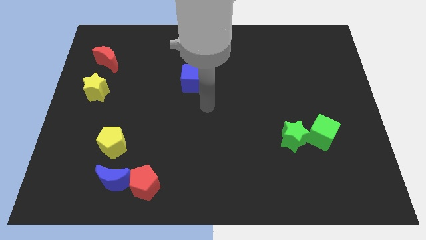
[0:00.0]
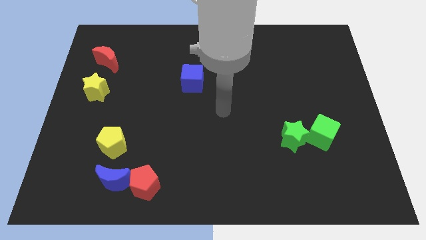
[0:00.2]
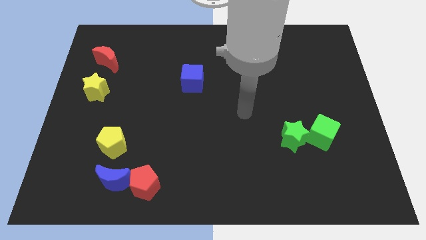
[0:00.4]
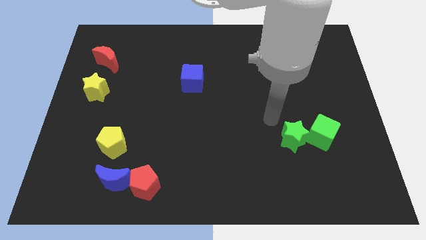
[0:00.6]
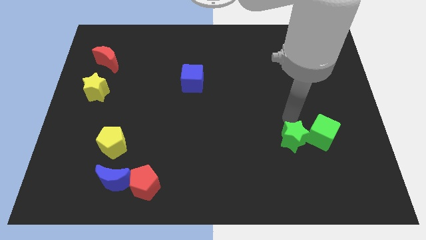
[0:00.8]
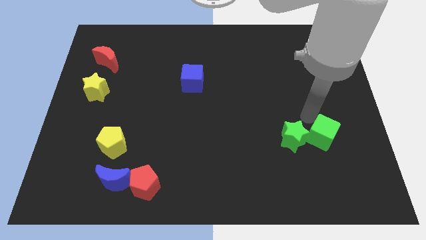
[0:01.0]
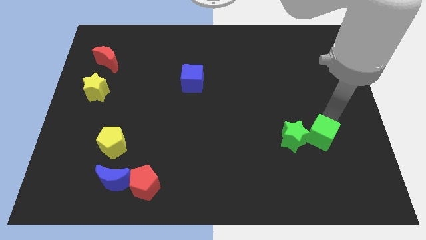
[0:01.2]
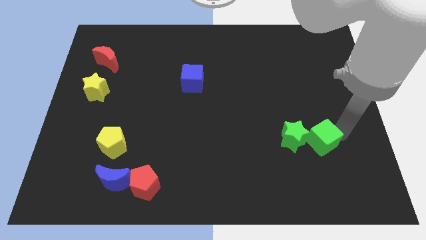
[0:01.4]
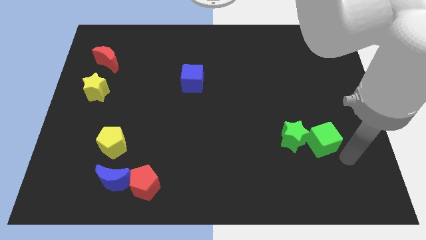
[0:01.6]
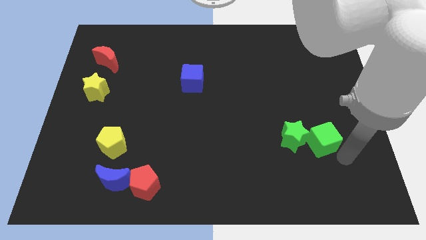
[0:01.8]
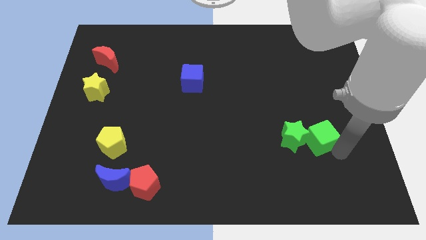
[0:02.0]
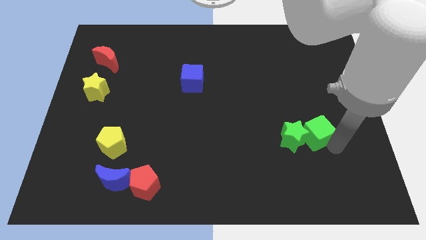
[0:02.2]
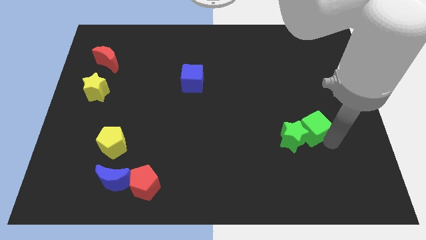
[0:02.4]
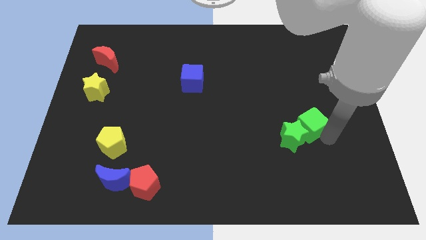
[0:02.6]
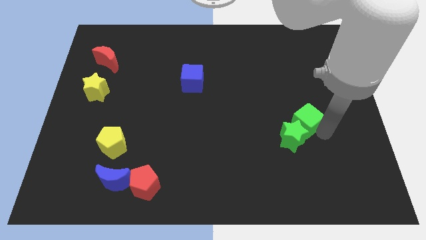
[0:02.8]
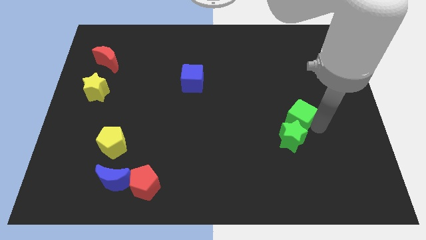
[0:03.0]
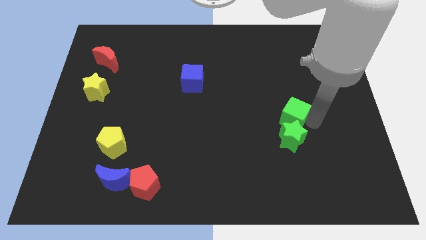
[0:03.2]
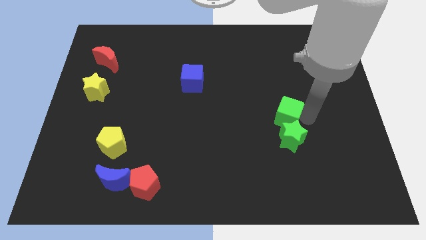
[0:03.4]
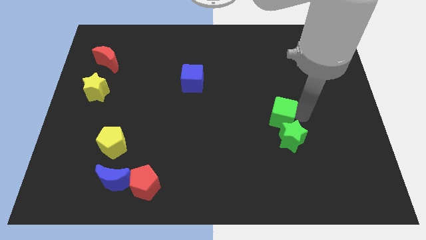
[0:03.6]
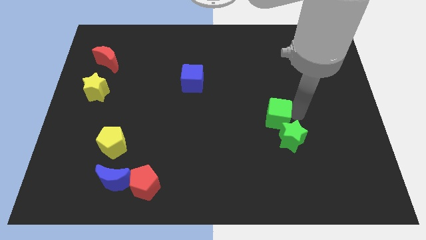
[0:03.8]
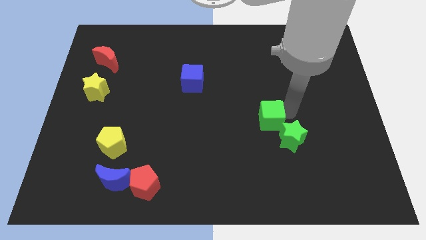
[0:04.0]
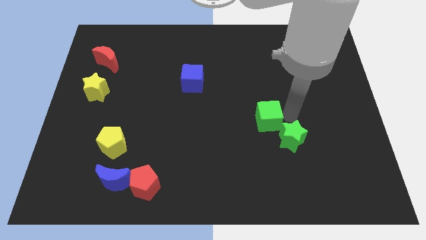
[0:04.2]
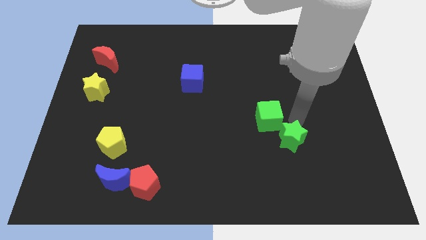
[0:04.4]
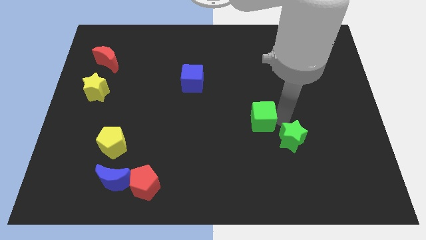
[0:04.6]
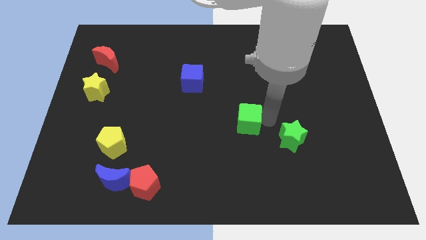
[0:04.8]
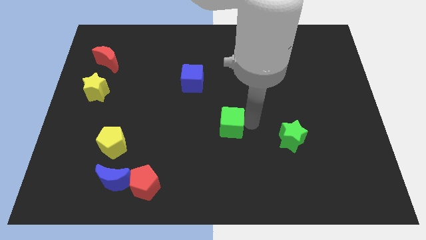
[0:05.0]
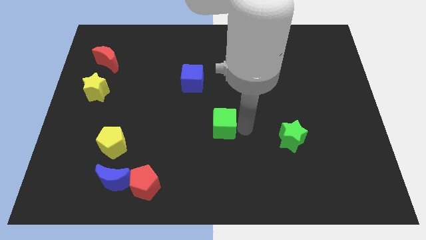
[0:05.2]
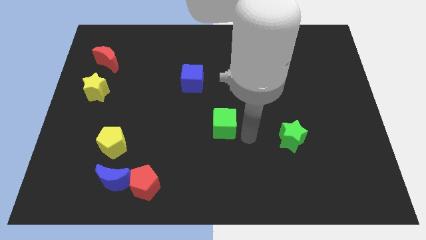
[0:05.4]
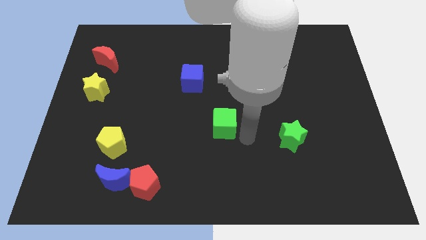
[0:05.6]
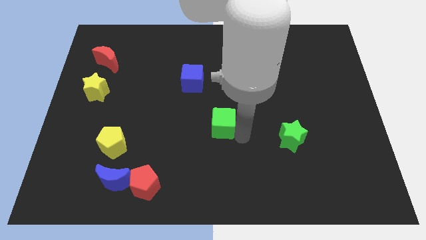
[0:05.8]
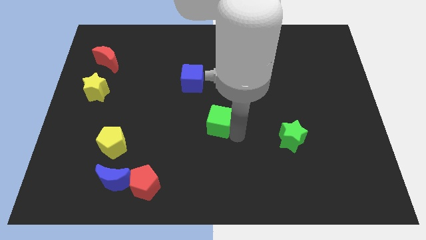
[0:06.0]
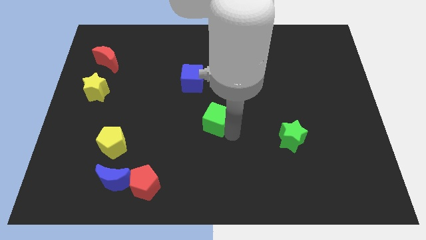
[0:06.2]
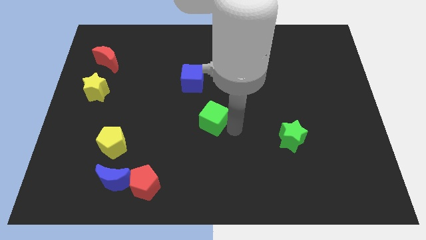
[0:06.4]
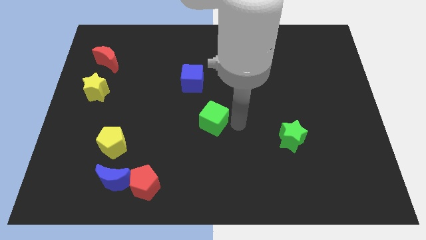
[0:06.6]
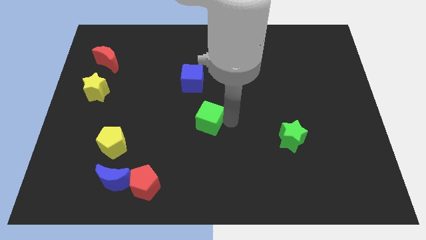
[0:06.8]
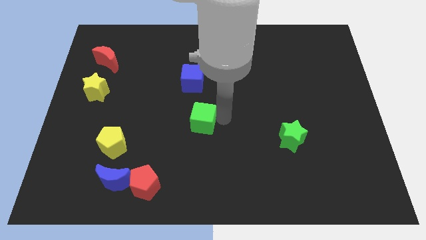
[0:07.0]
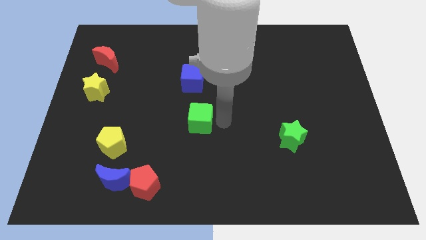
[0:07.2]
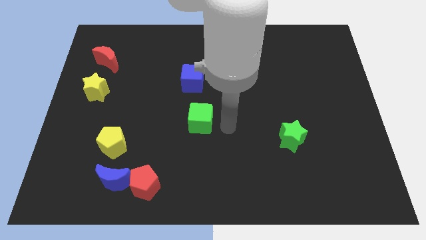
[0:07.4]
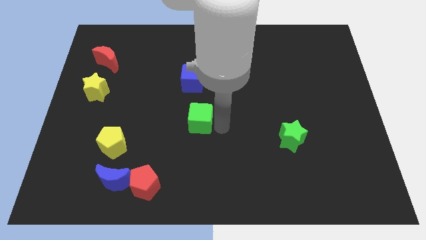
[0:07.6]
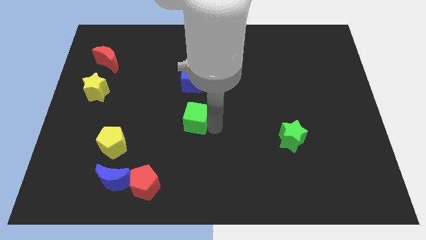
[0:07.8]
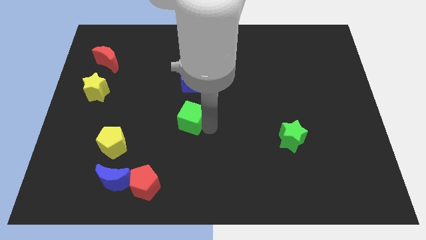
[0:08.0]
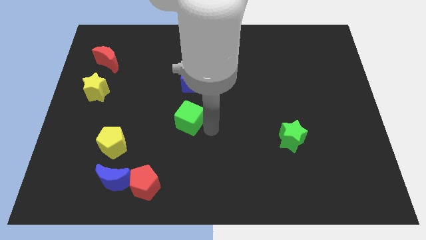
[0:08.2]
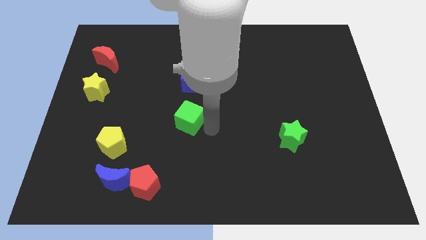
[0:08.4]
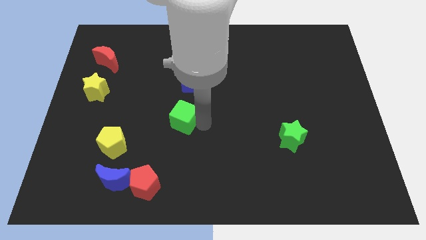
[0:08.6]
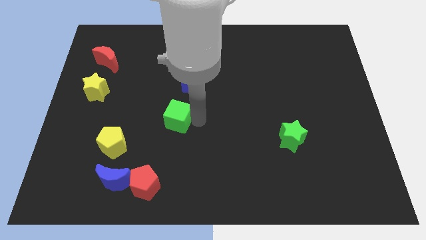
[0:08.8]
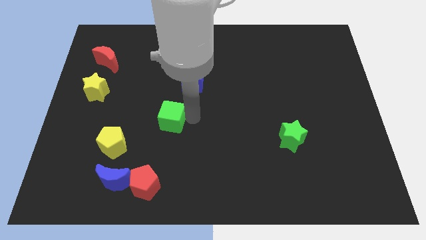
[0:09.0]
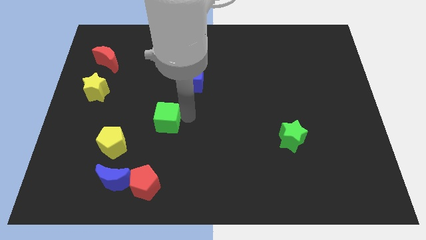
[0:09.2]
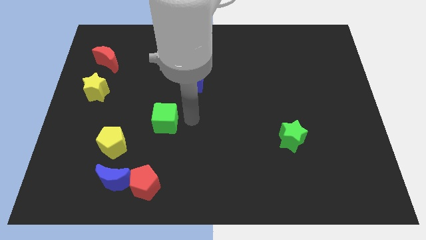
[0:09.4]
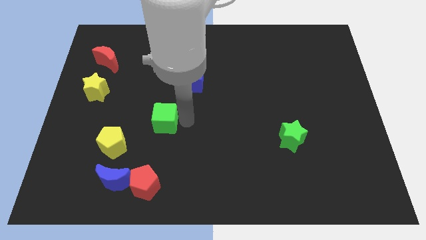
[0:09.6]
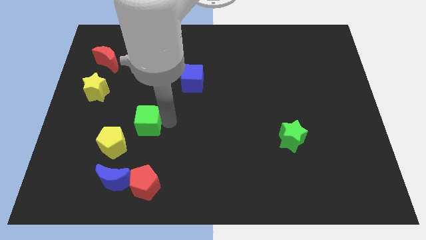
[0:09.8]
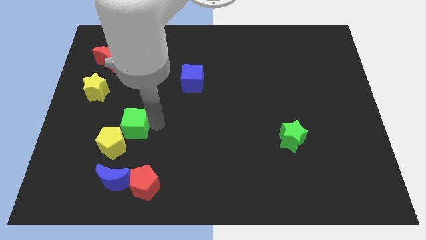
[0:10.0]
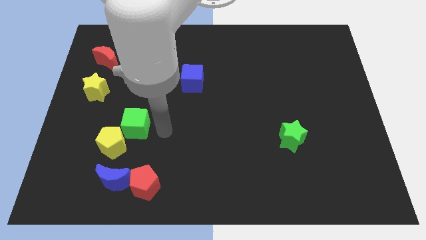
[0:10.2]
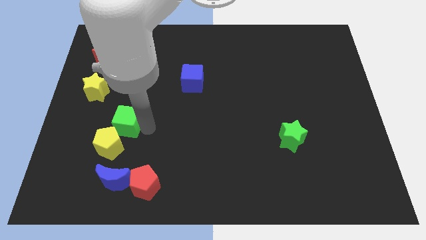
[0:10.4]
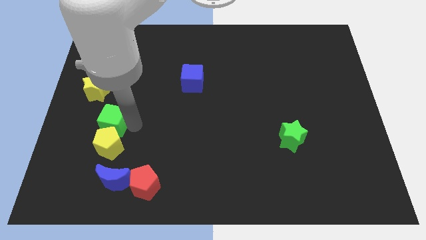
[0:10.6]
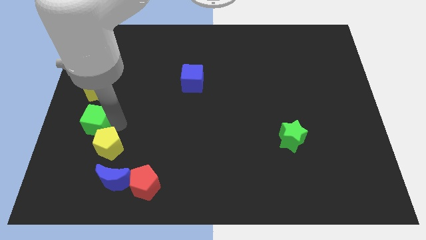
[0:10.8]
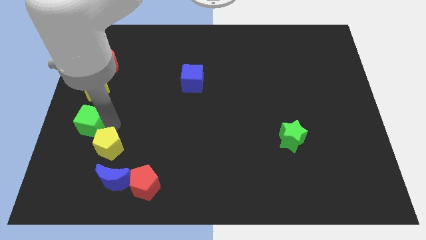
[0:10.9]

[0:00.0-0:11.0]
put the green cube to the center left

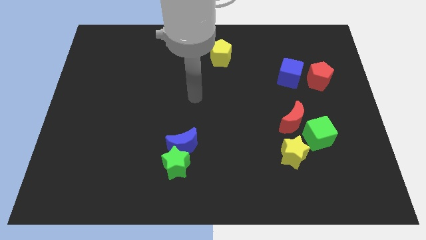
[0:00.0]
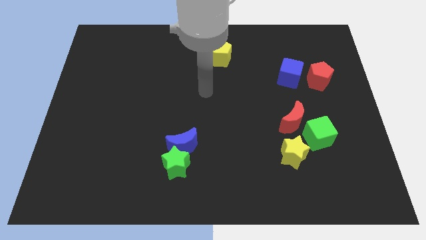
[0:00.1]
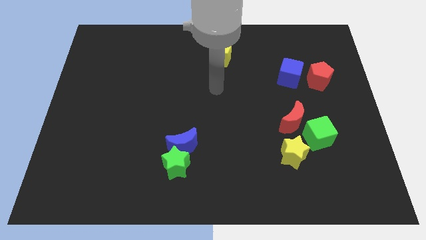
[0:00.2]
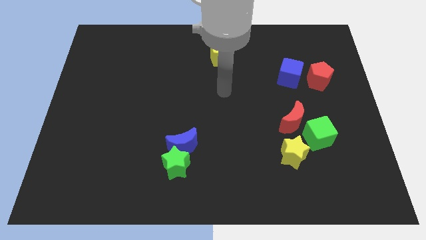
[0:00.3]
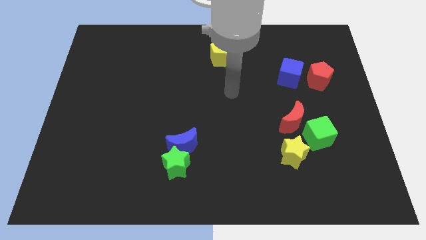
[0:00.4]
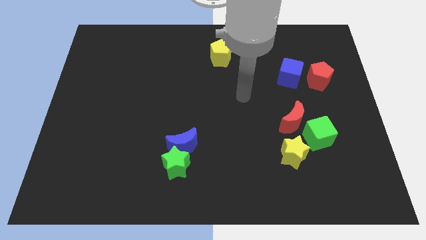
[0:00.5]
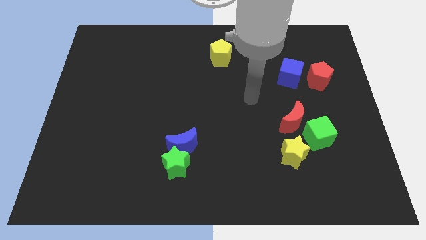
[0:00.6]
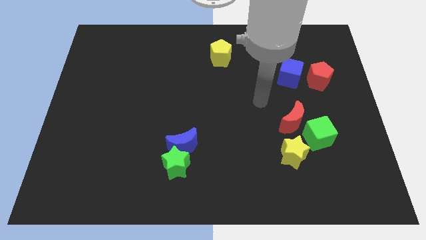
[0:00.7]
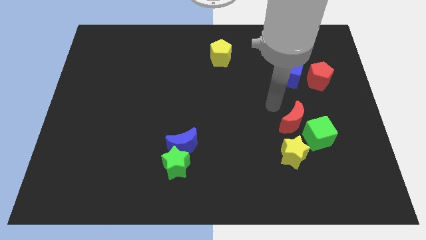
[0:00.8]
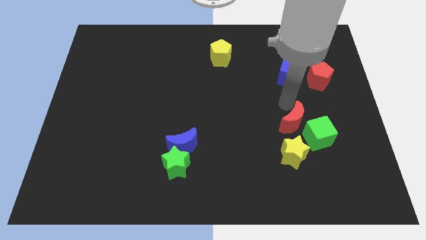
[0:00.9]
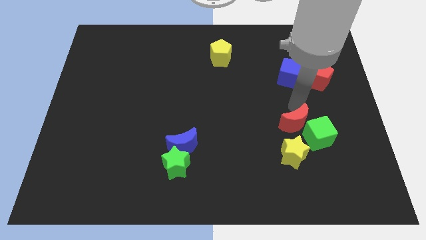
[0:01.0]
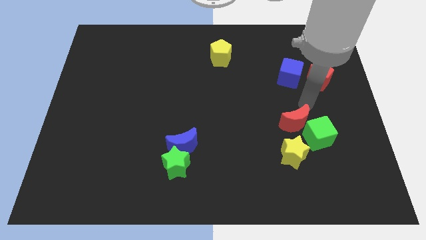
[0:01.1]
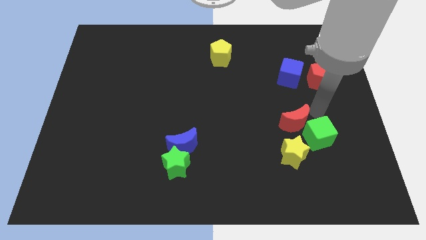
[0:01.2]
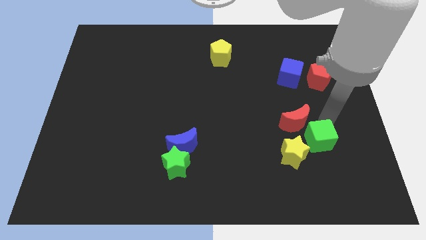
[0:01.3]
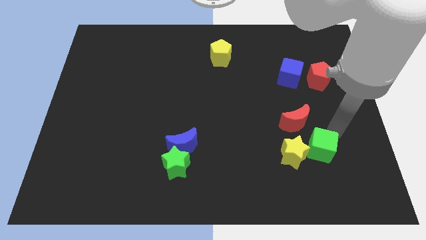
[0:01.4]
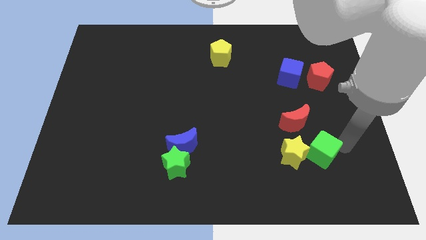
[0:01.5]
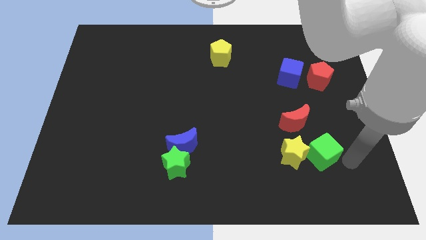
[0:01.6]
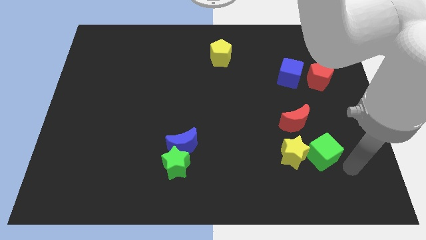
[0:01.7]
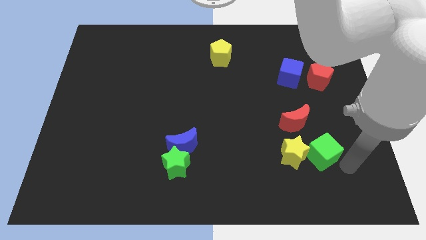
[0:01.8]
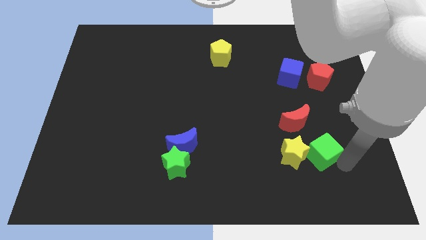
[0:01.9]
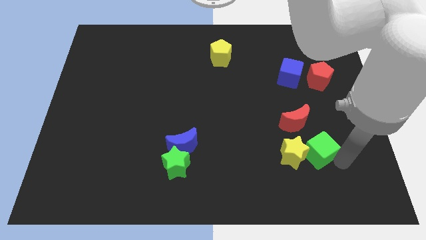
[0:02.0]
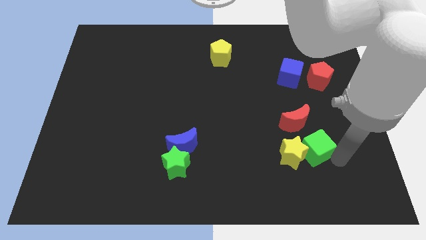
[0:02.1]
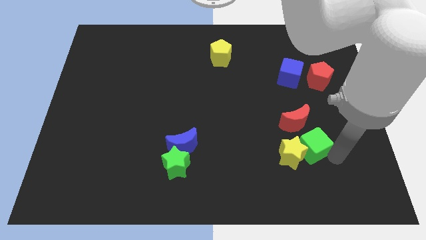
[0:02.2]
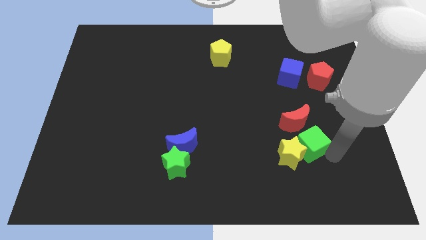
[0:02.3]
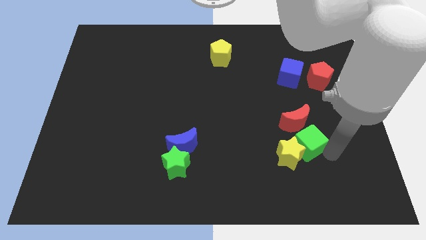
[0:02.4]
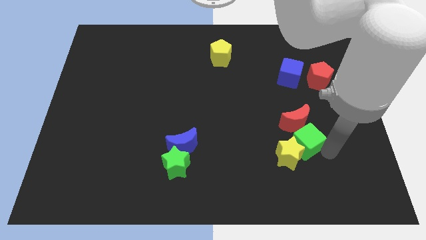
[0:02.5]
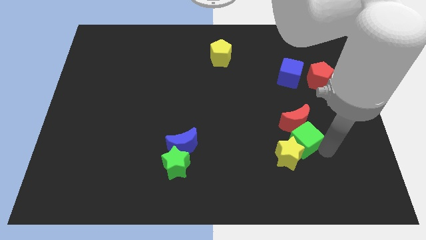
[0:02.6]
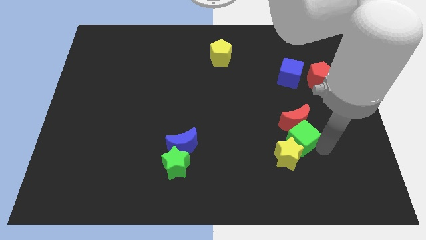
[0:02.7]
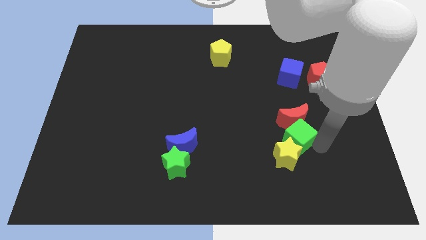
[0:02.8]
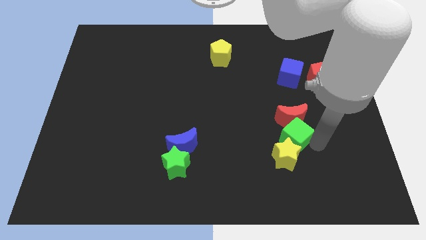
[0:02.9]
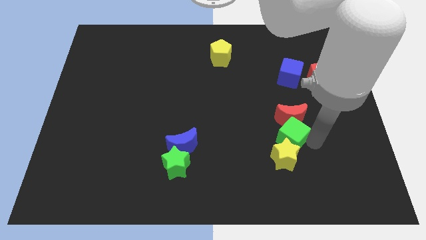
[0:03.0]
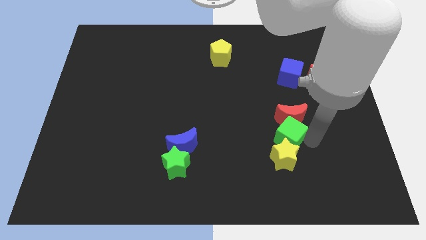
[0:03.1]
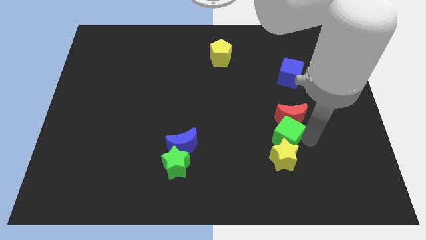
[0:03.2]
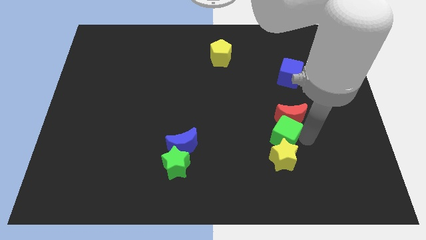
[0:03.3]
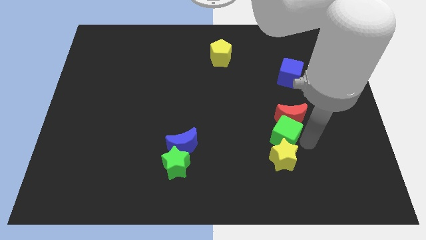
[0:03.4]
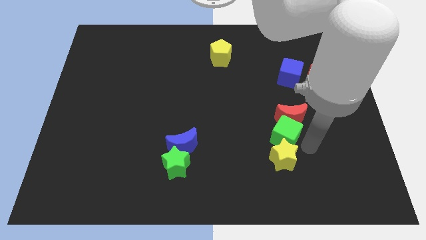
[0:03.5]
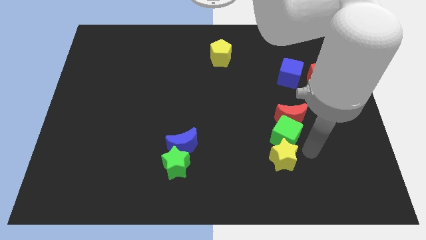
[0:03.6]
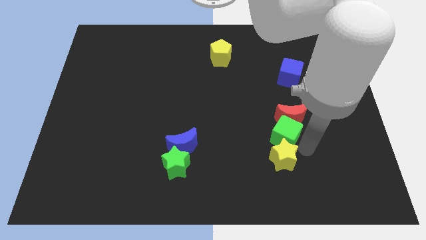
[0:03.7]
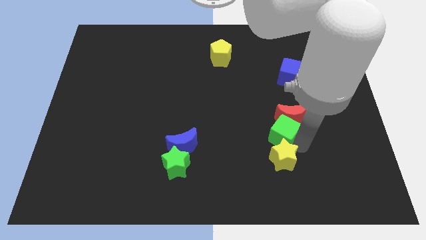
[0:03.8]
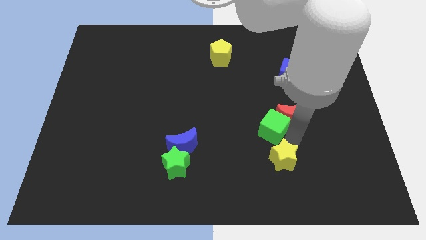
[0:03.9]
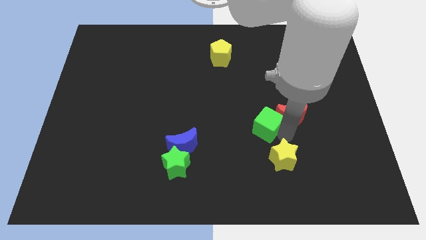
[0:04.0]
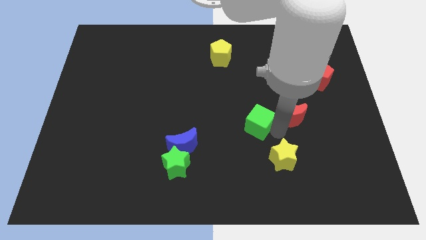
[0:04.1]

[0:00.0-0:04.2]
put the green cube to the middle
